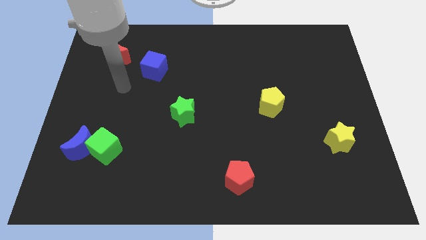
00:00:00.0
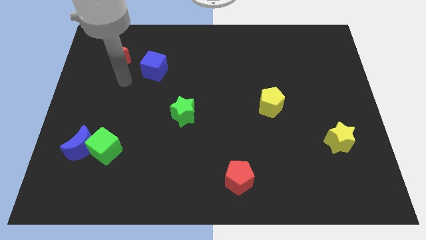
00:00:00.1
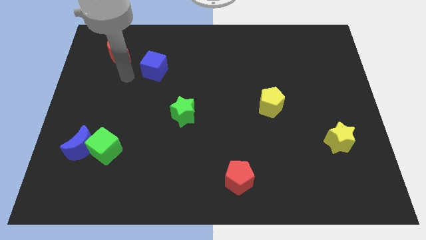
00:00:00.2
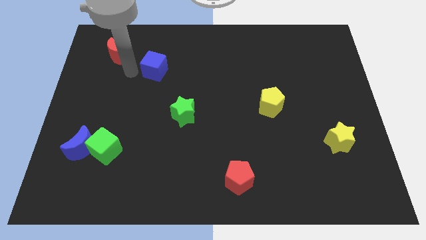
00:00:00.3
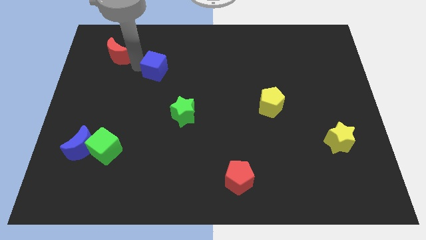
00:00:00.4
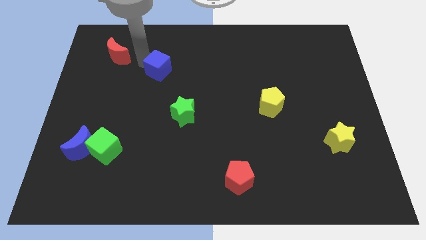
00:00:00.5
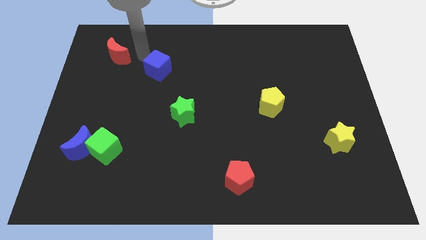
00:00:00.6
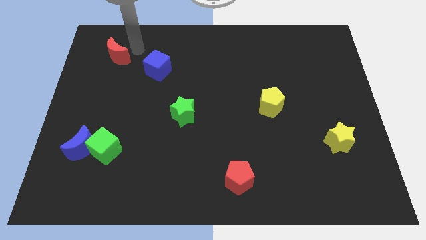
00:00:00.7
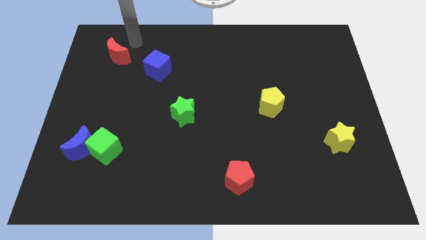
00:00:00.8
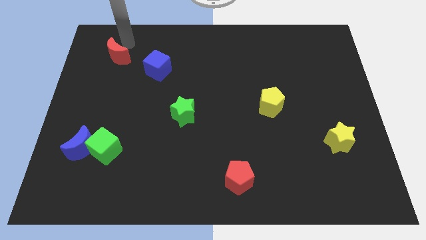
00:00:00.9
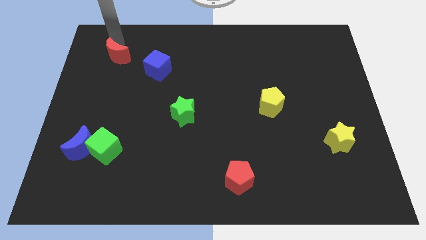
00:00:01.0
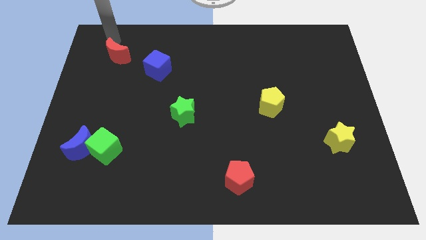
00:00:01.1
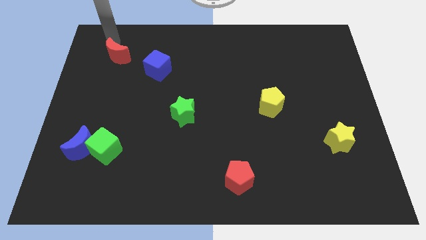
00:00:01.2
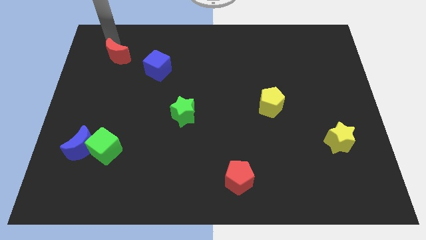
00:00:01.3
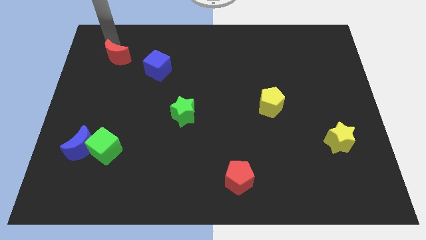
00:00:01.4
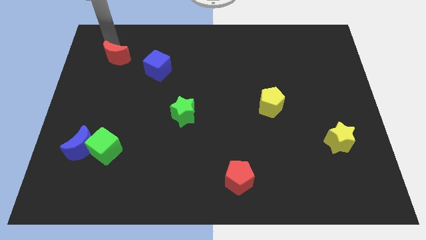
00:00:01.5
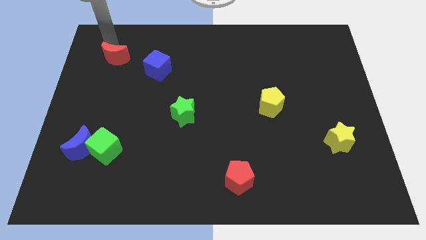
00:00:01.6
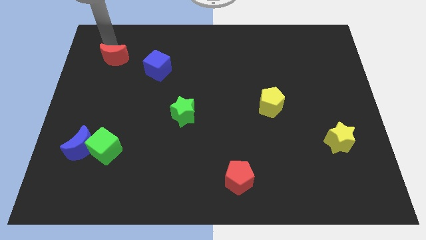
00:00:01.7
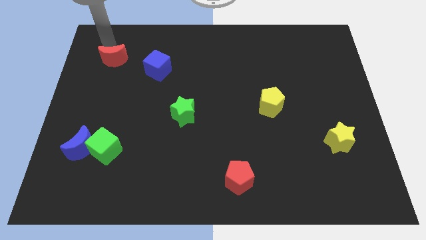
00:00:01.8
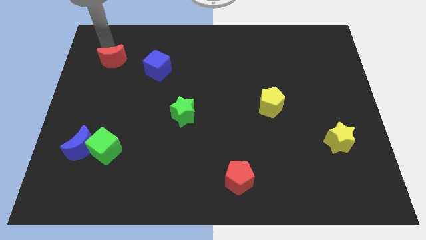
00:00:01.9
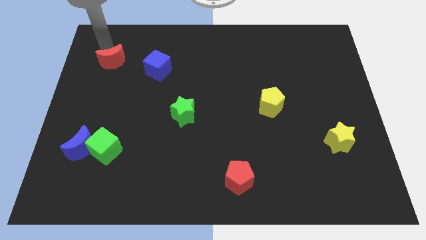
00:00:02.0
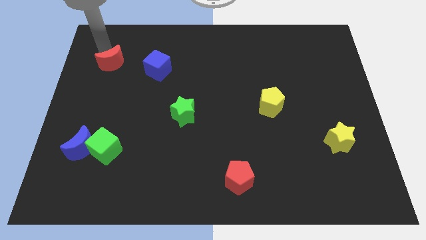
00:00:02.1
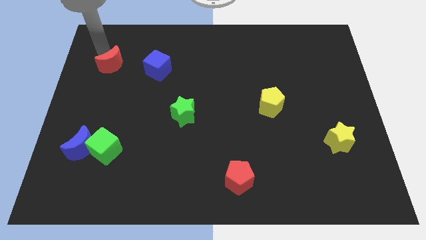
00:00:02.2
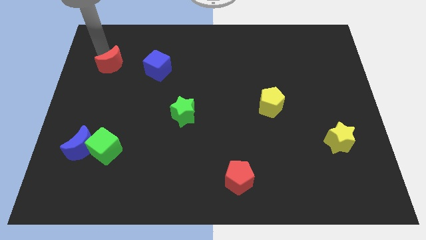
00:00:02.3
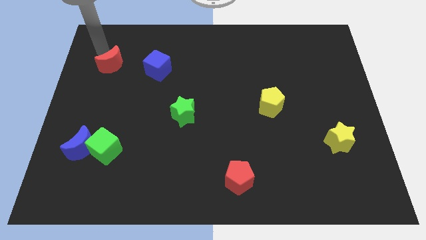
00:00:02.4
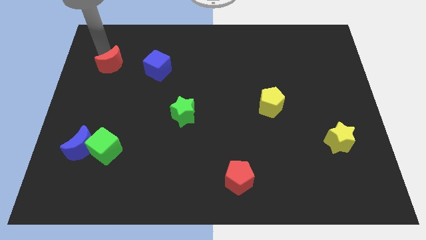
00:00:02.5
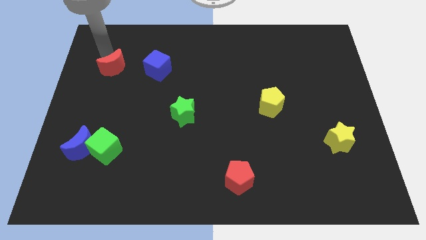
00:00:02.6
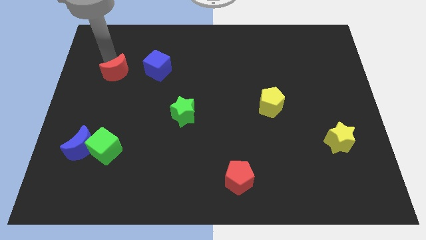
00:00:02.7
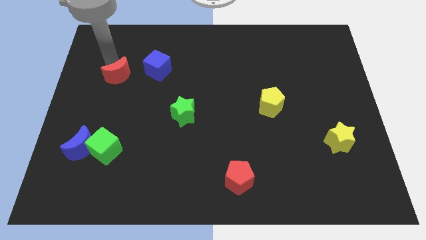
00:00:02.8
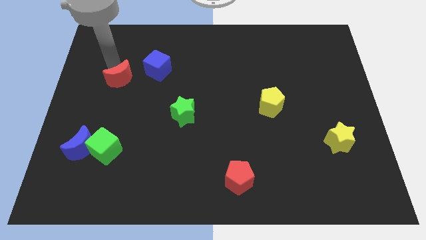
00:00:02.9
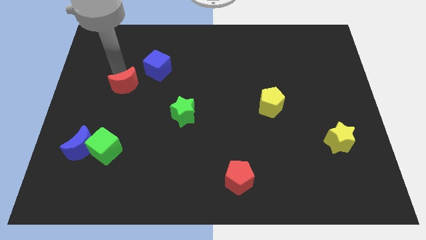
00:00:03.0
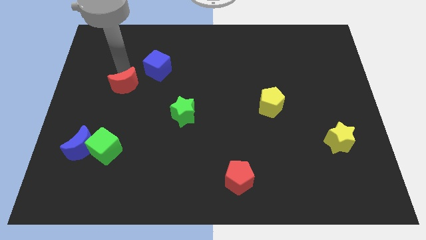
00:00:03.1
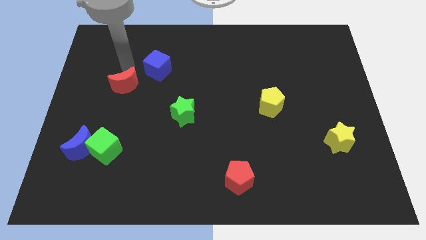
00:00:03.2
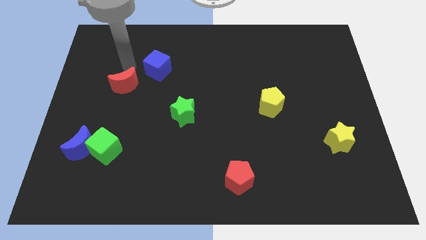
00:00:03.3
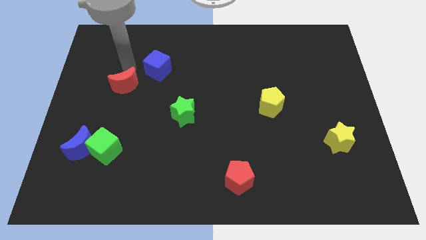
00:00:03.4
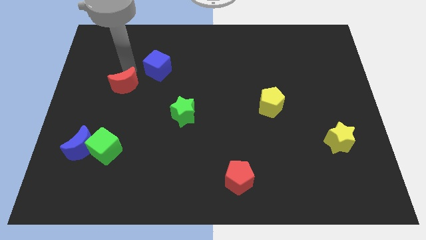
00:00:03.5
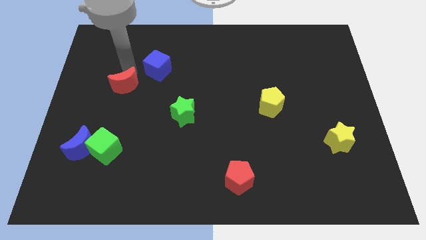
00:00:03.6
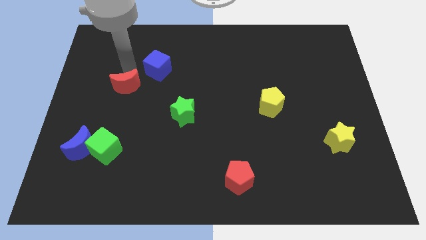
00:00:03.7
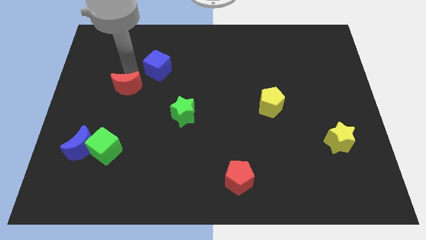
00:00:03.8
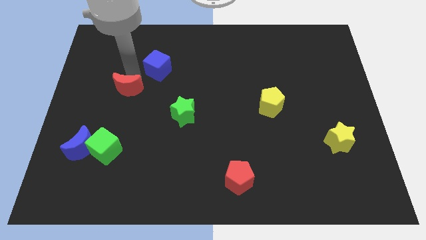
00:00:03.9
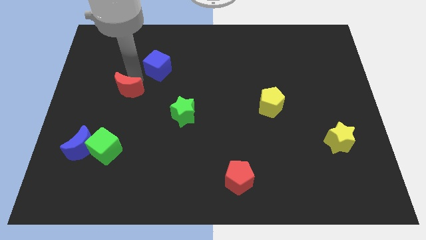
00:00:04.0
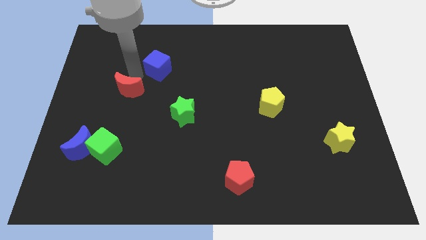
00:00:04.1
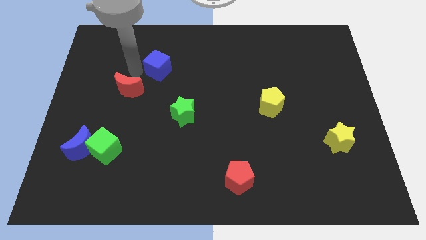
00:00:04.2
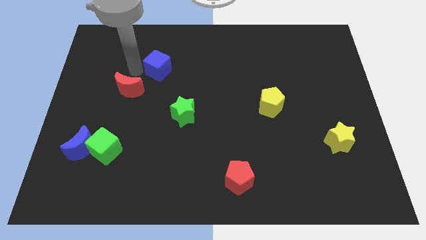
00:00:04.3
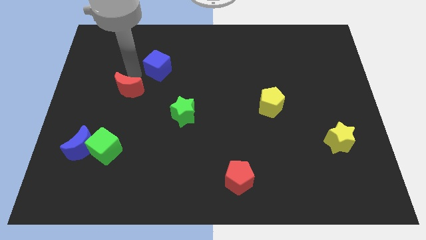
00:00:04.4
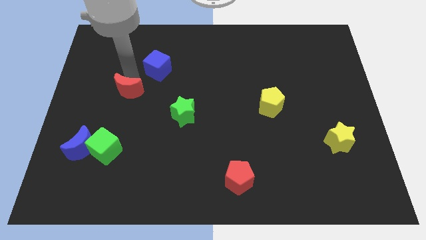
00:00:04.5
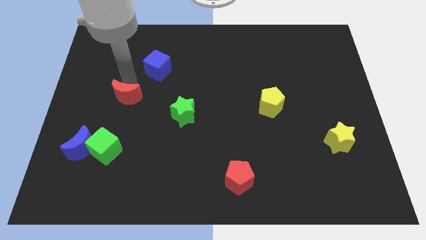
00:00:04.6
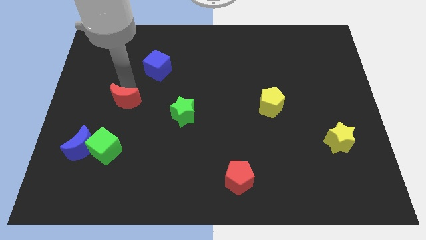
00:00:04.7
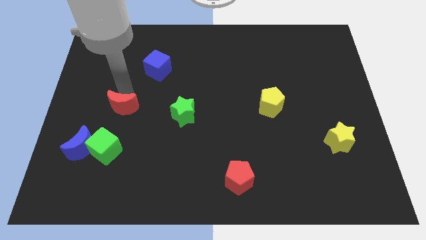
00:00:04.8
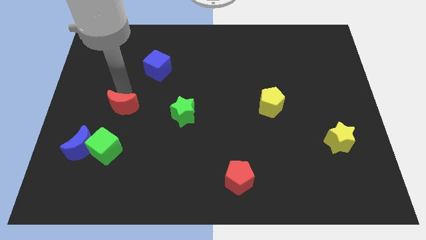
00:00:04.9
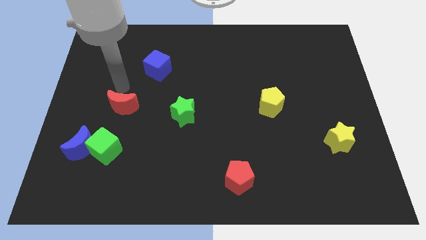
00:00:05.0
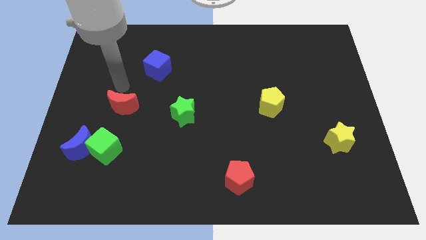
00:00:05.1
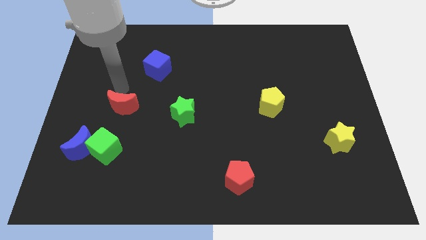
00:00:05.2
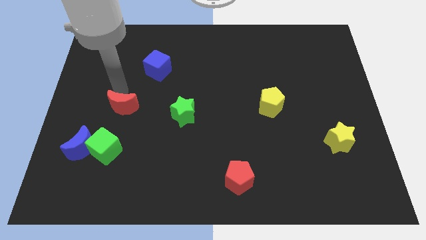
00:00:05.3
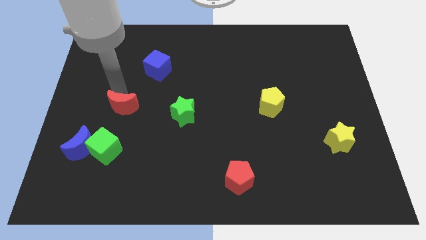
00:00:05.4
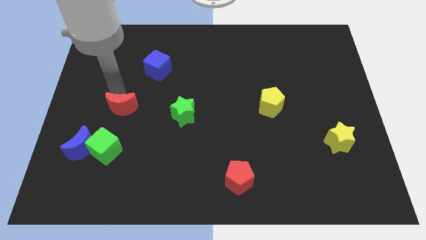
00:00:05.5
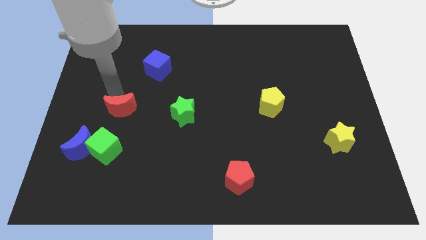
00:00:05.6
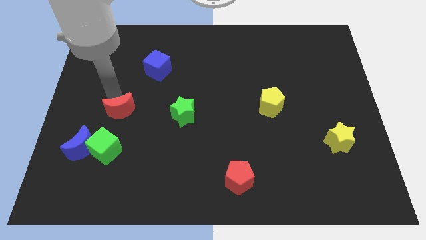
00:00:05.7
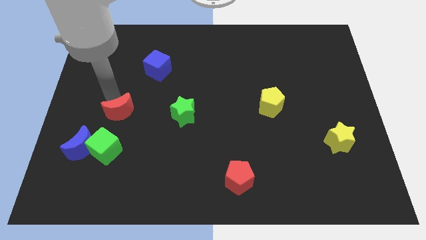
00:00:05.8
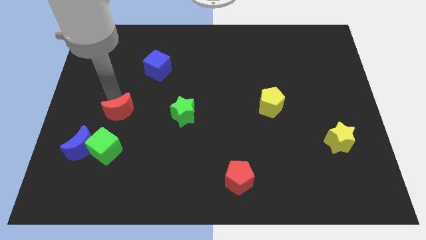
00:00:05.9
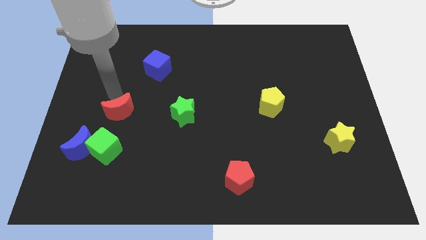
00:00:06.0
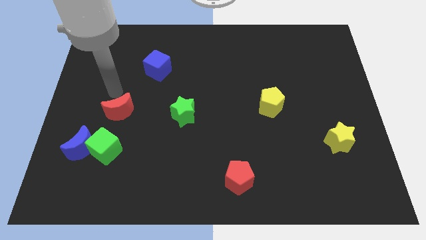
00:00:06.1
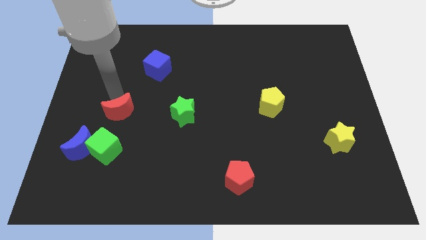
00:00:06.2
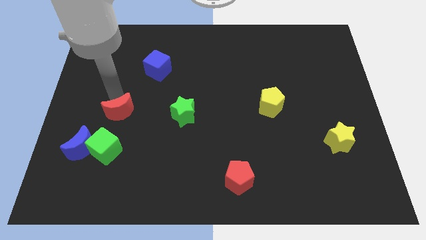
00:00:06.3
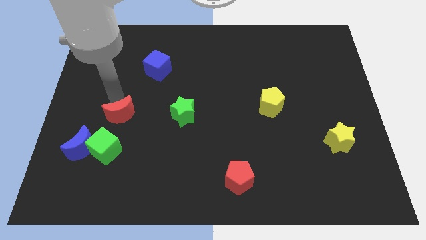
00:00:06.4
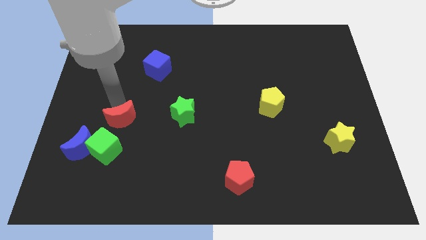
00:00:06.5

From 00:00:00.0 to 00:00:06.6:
slide the red moon downwards

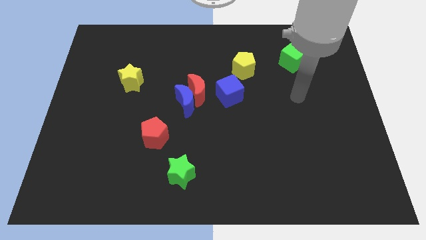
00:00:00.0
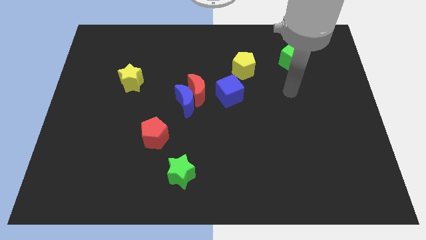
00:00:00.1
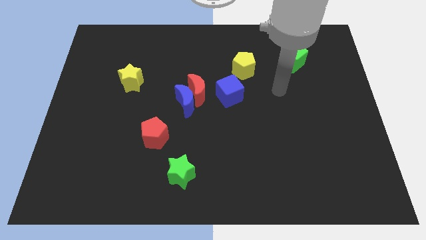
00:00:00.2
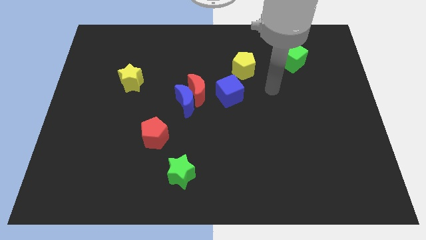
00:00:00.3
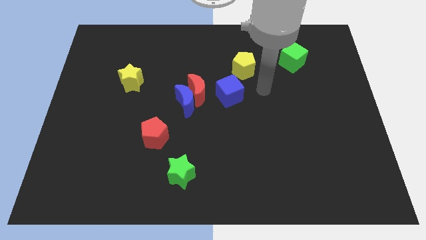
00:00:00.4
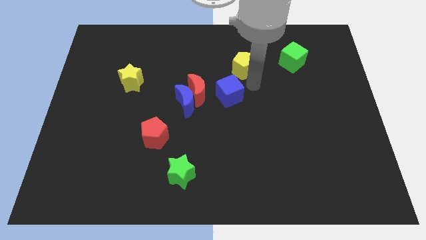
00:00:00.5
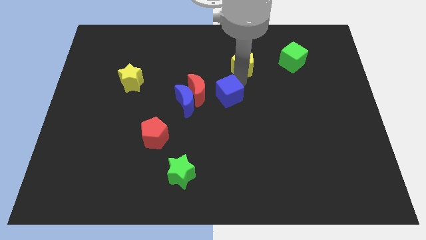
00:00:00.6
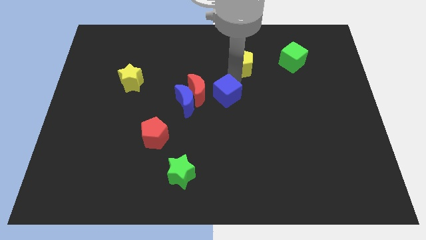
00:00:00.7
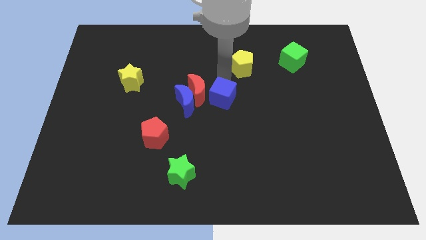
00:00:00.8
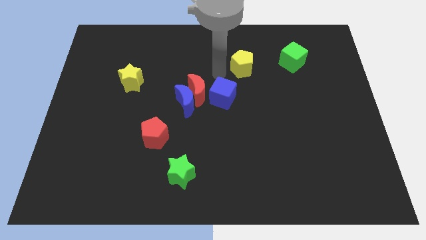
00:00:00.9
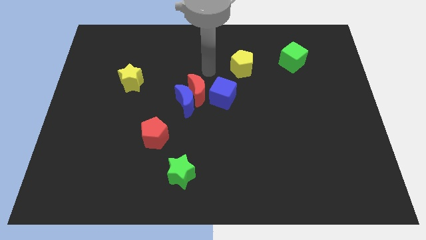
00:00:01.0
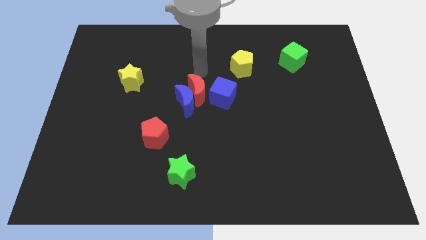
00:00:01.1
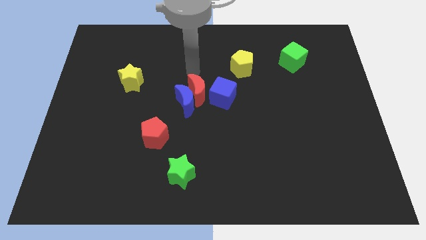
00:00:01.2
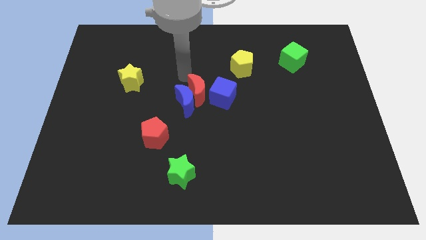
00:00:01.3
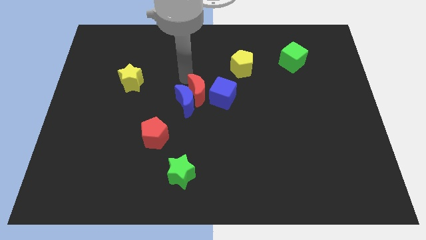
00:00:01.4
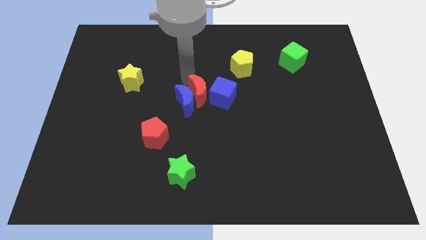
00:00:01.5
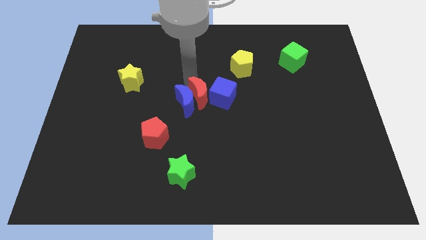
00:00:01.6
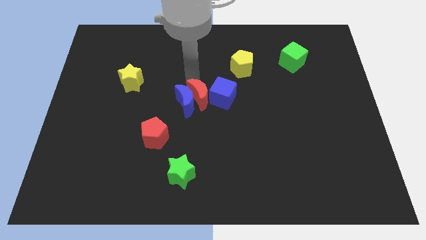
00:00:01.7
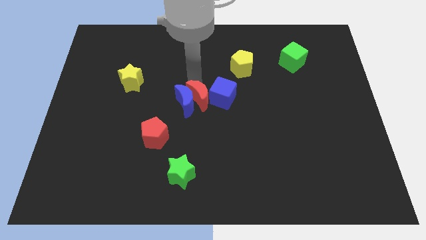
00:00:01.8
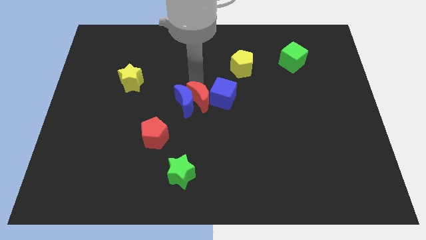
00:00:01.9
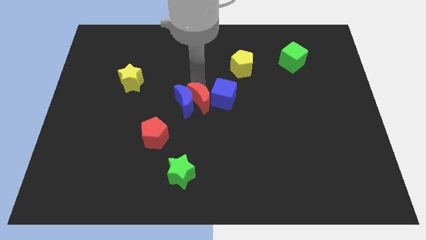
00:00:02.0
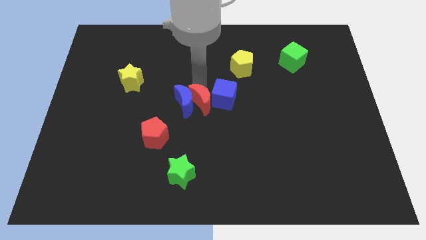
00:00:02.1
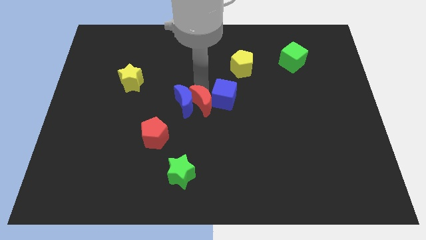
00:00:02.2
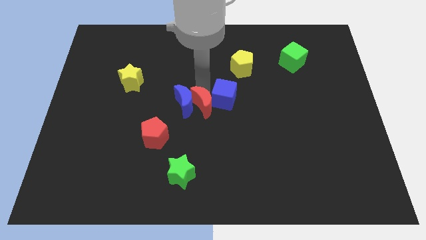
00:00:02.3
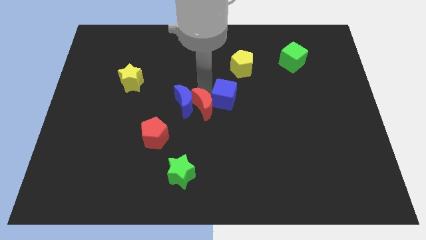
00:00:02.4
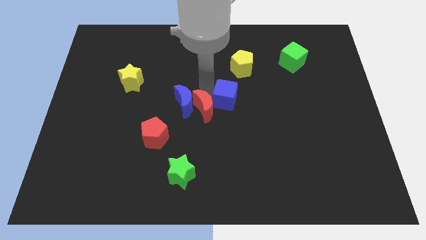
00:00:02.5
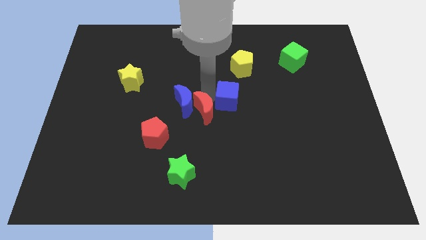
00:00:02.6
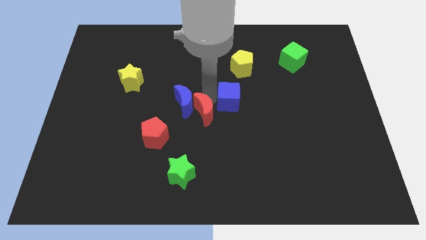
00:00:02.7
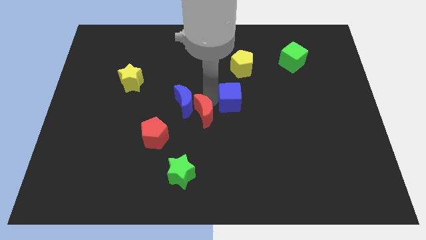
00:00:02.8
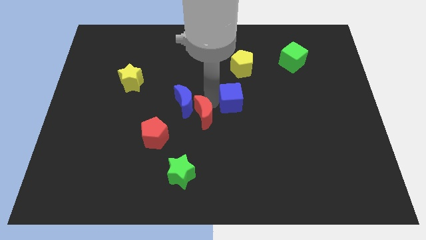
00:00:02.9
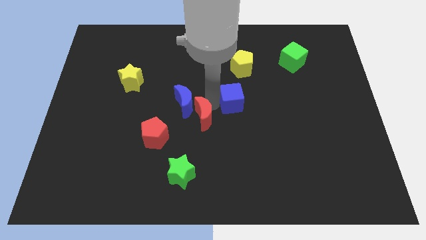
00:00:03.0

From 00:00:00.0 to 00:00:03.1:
slightly move the red moon down
